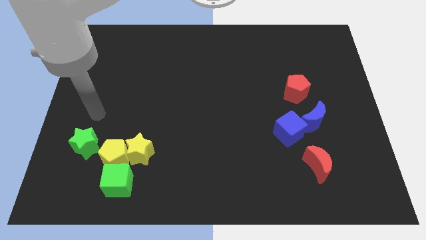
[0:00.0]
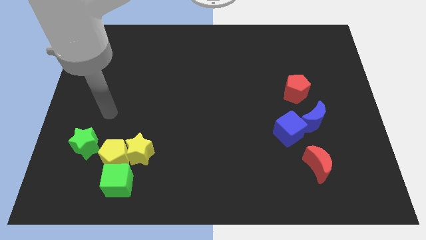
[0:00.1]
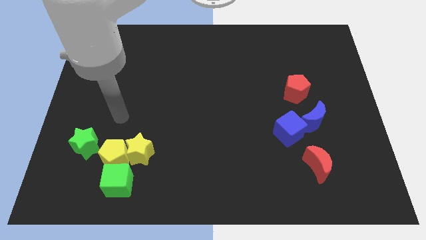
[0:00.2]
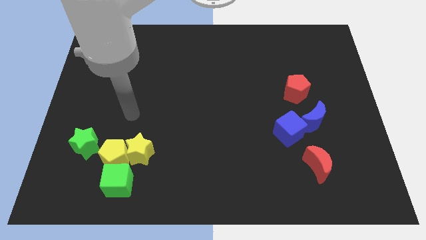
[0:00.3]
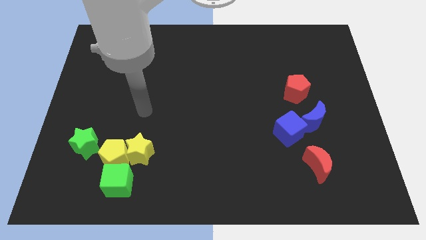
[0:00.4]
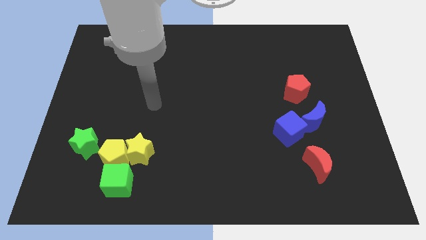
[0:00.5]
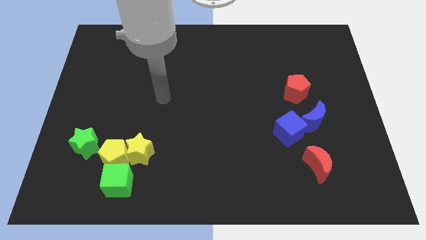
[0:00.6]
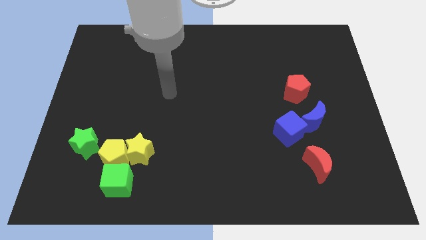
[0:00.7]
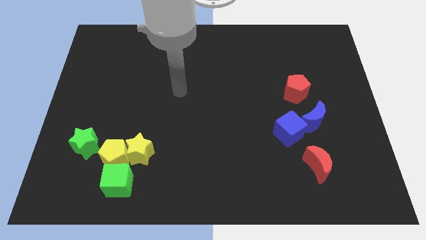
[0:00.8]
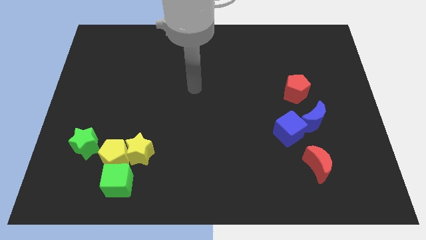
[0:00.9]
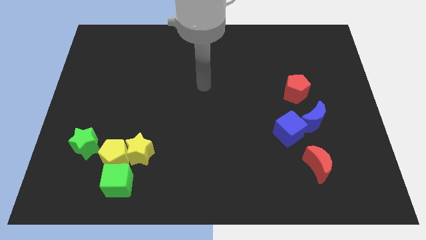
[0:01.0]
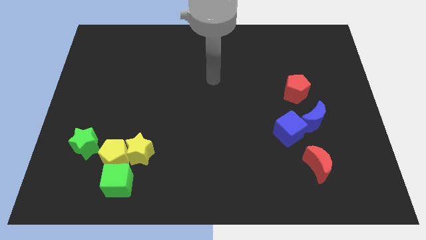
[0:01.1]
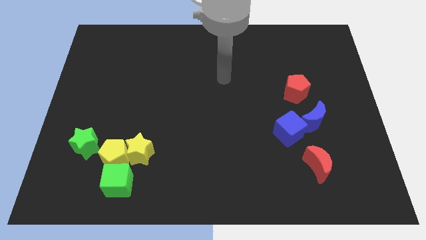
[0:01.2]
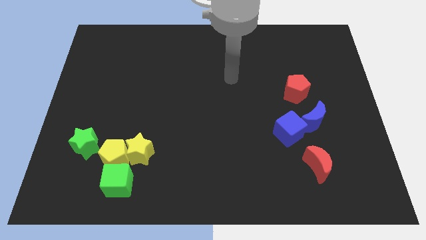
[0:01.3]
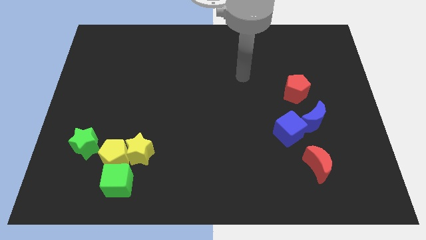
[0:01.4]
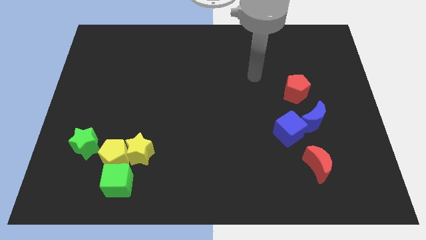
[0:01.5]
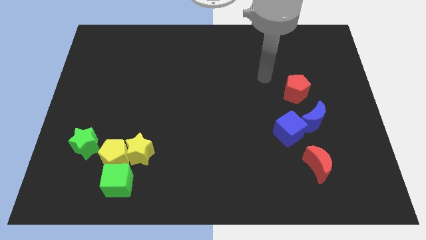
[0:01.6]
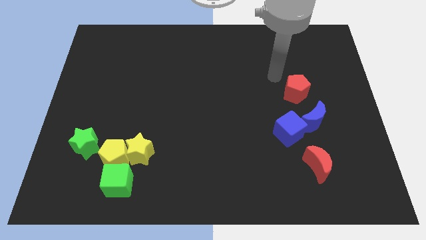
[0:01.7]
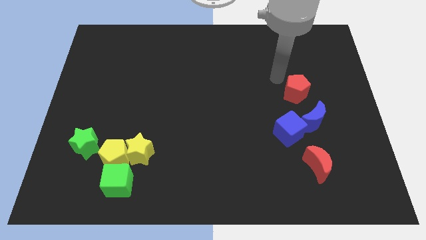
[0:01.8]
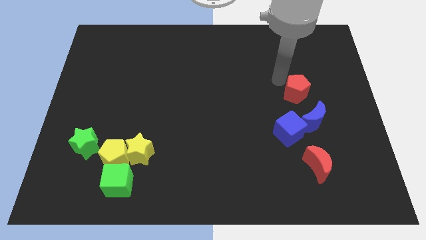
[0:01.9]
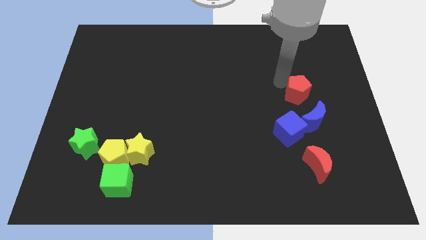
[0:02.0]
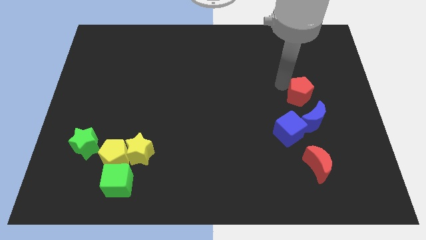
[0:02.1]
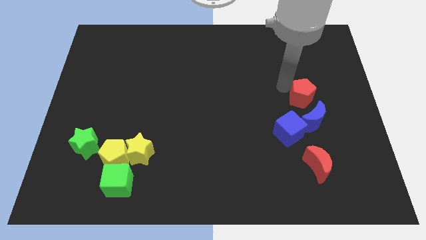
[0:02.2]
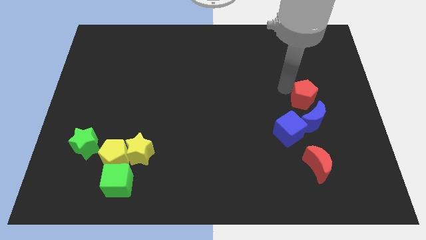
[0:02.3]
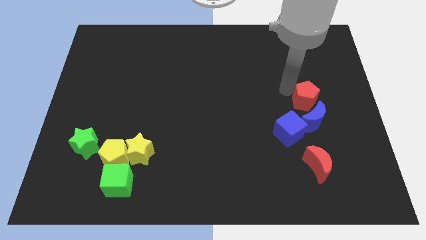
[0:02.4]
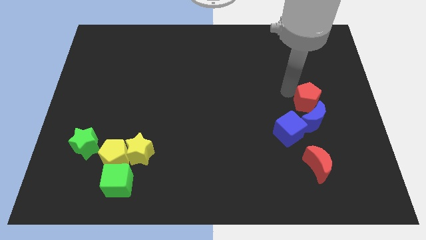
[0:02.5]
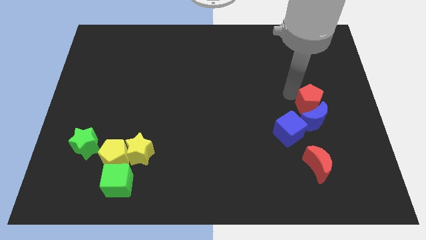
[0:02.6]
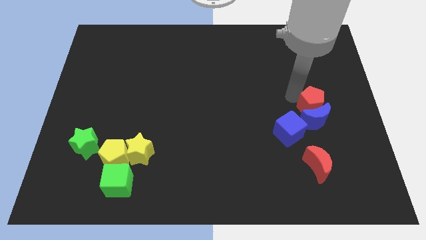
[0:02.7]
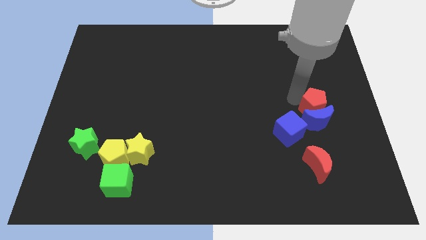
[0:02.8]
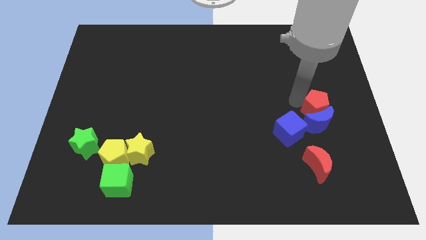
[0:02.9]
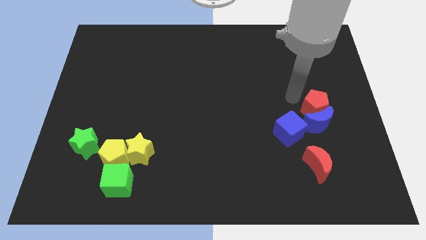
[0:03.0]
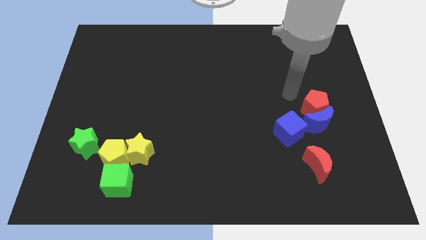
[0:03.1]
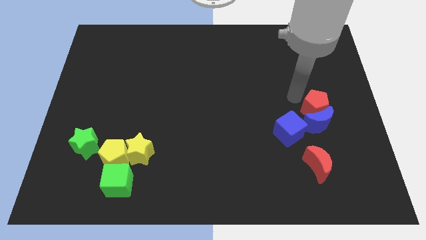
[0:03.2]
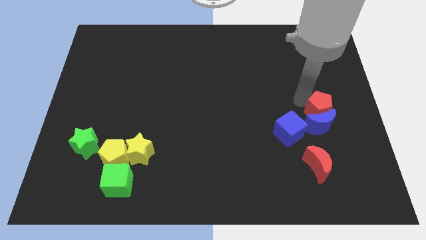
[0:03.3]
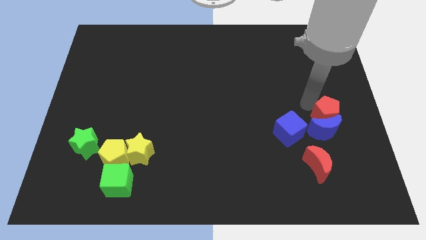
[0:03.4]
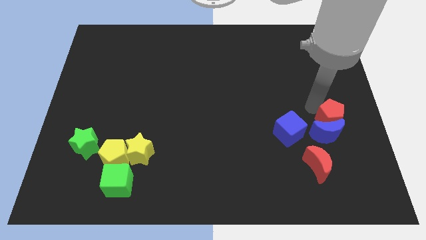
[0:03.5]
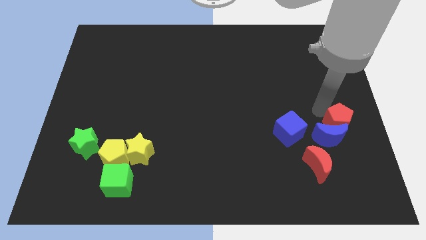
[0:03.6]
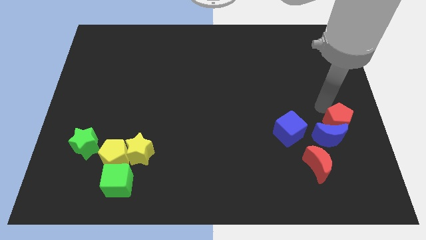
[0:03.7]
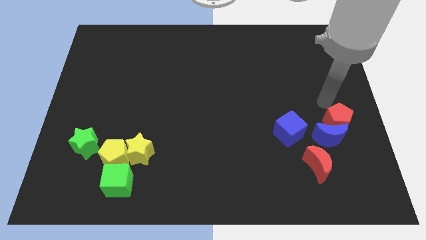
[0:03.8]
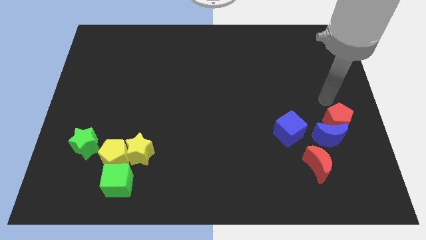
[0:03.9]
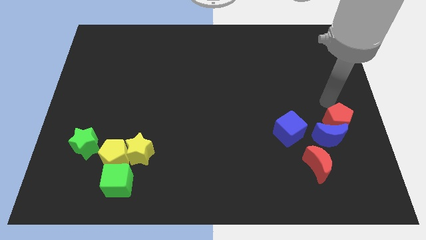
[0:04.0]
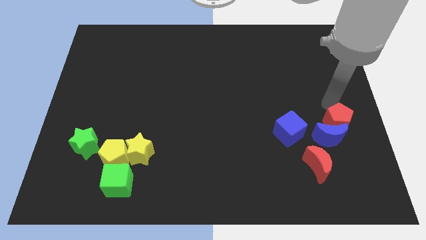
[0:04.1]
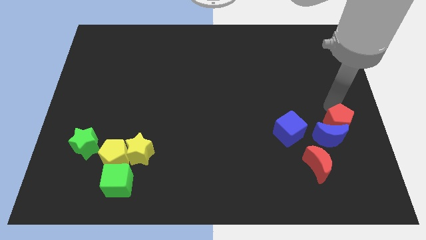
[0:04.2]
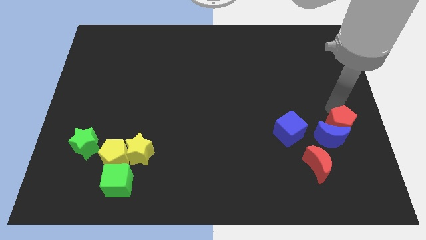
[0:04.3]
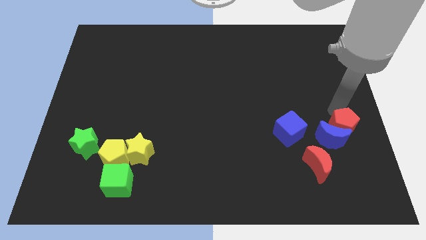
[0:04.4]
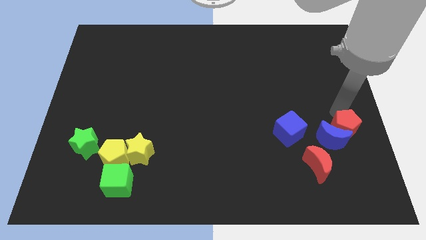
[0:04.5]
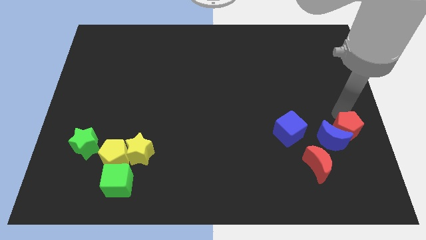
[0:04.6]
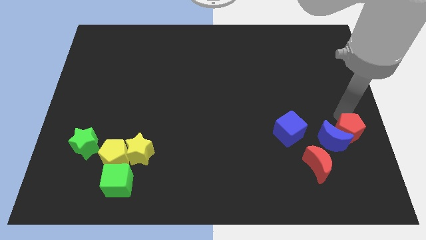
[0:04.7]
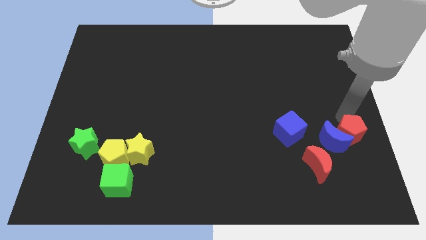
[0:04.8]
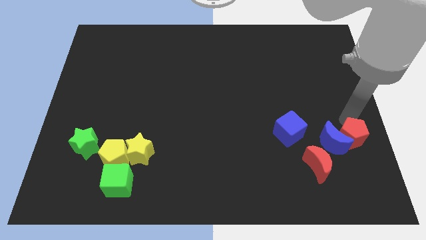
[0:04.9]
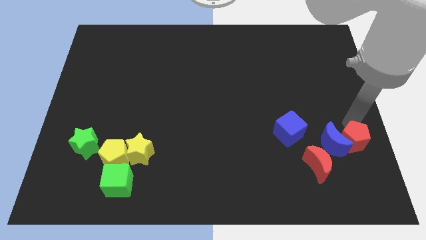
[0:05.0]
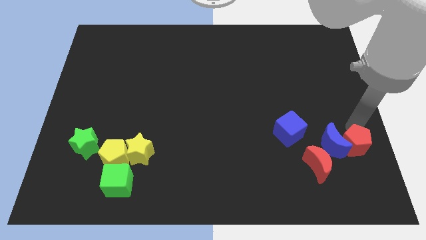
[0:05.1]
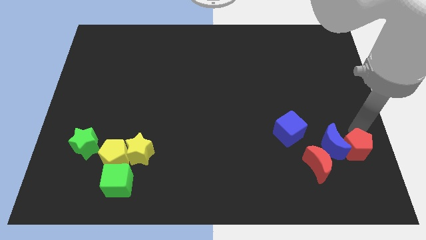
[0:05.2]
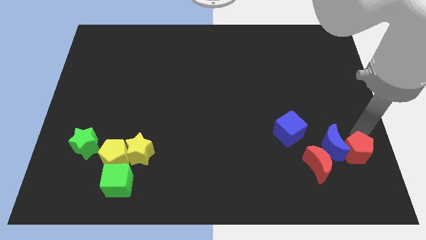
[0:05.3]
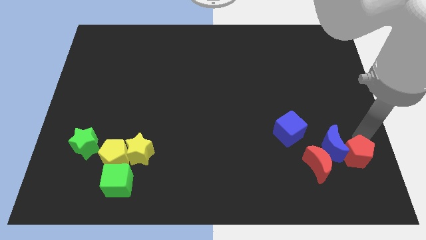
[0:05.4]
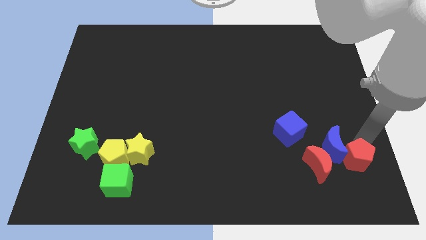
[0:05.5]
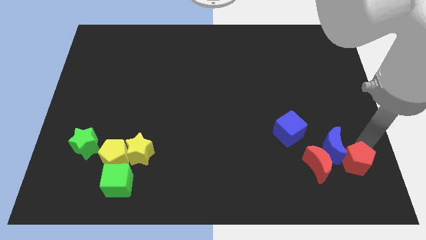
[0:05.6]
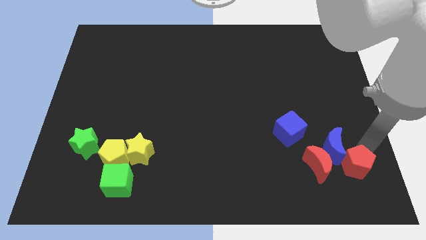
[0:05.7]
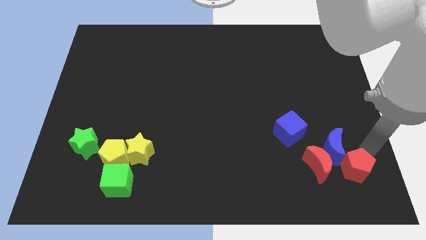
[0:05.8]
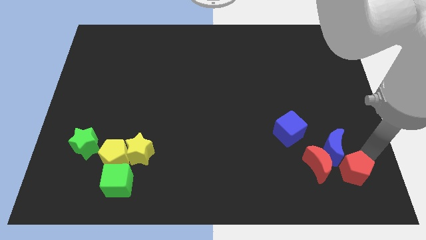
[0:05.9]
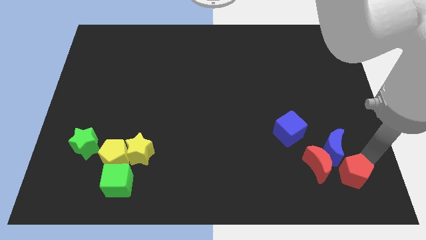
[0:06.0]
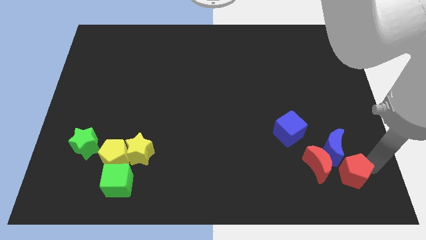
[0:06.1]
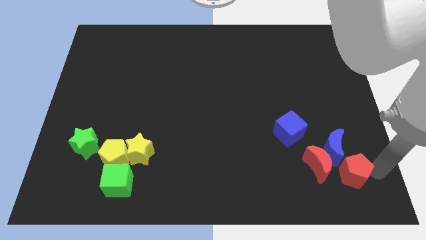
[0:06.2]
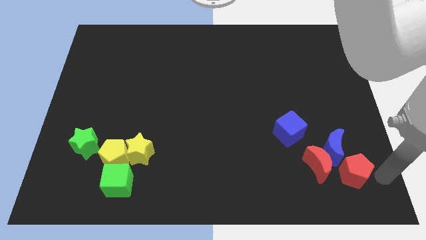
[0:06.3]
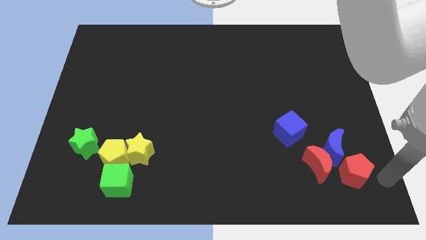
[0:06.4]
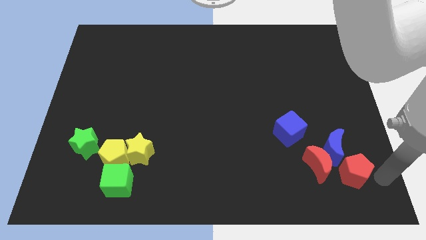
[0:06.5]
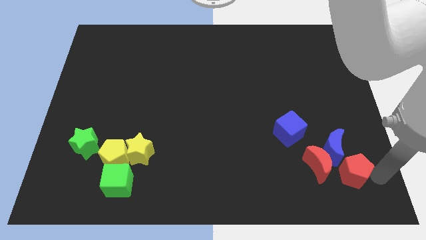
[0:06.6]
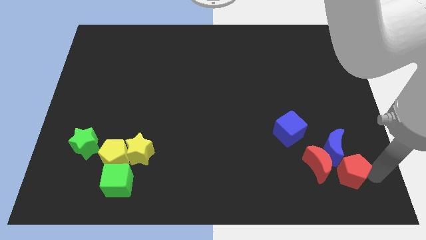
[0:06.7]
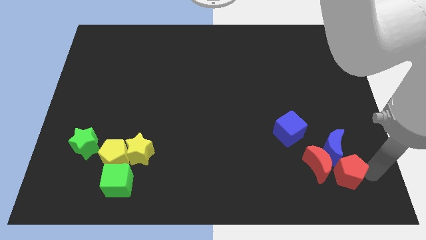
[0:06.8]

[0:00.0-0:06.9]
move the red pentagon next to the red moon

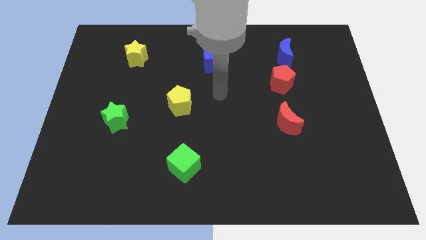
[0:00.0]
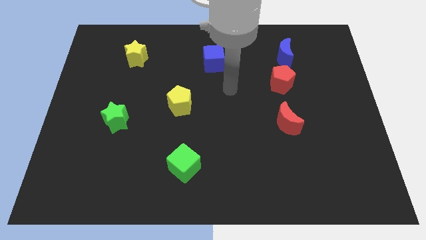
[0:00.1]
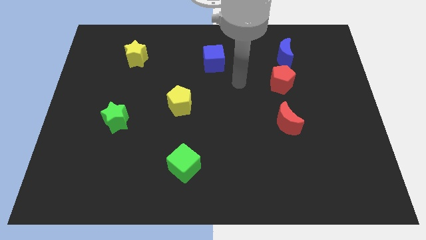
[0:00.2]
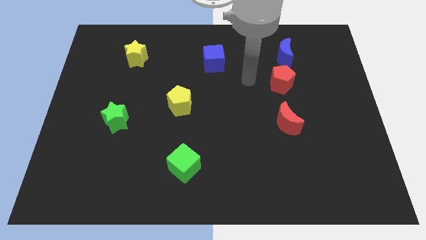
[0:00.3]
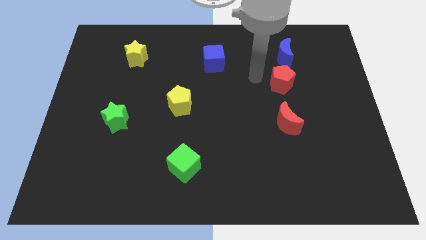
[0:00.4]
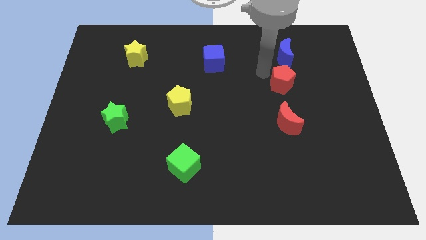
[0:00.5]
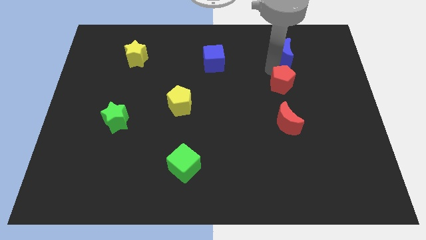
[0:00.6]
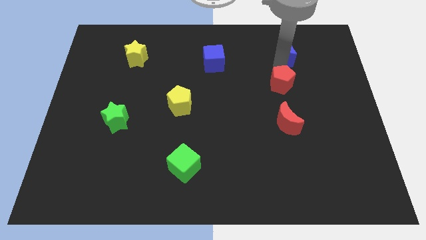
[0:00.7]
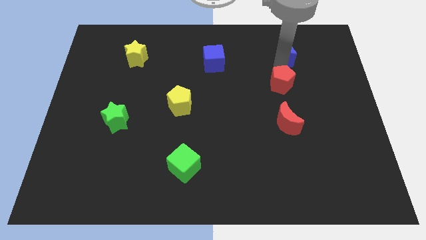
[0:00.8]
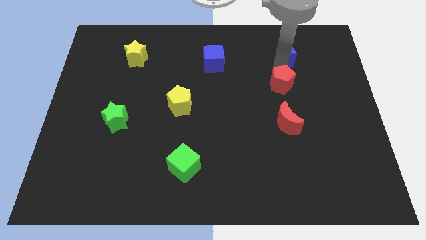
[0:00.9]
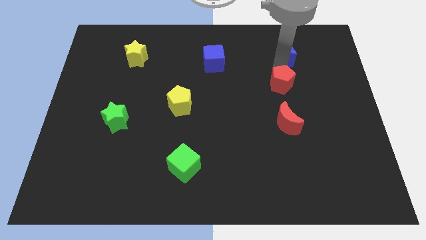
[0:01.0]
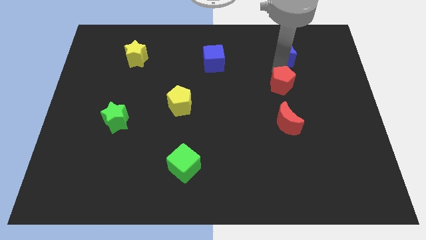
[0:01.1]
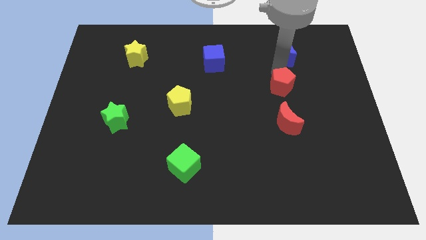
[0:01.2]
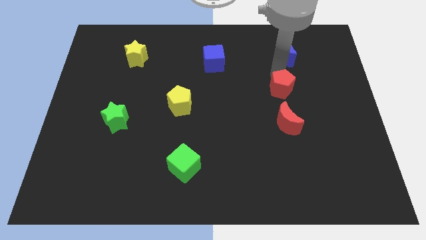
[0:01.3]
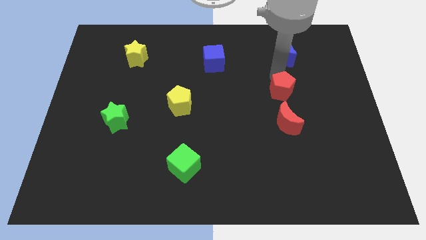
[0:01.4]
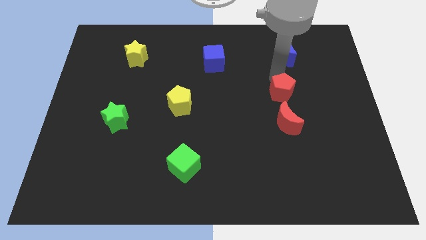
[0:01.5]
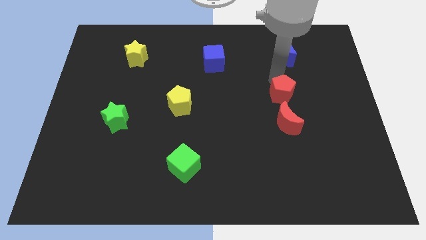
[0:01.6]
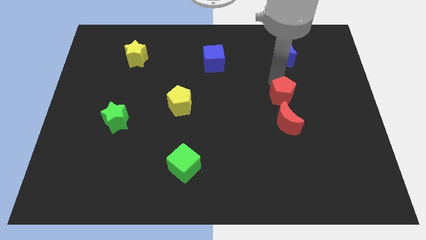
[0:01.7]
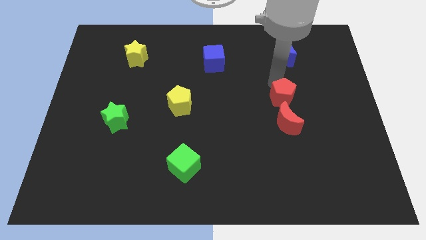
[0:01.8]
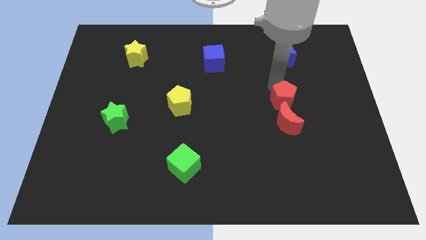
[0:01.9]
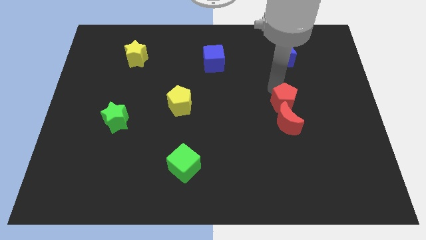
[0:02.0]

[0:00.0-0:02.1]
slide the red pentagon next to the red moon
